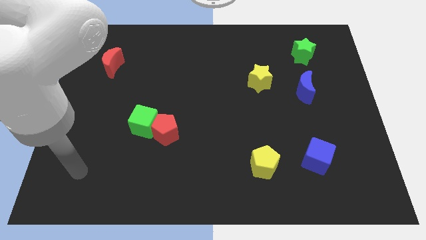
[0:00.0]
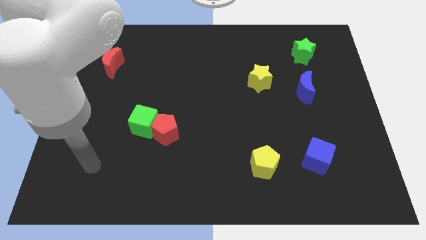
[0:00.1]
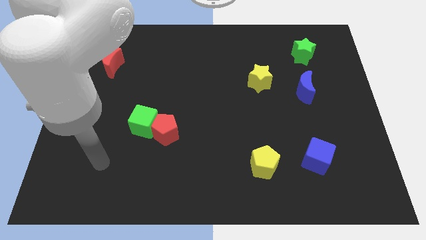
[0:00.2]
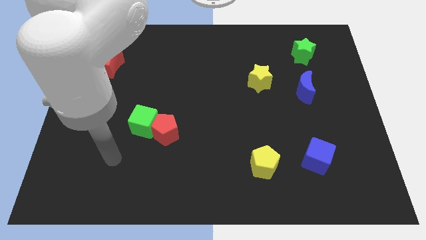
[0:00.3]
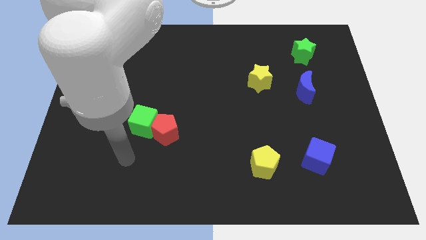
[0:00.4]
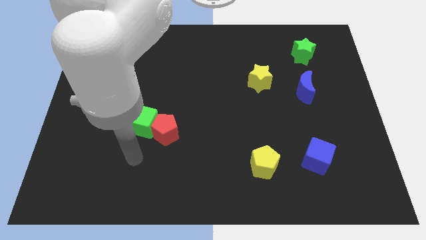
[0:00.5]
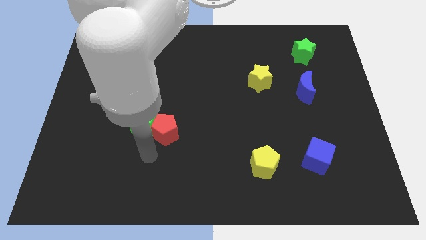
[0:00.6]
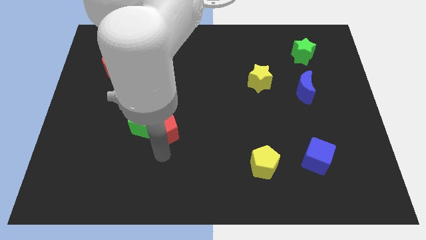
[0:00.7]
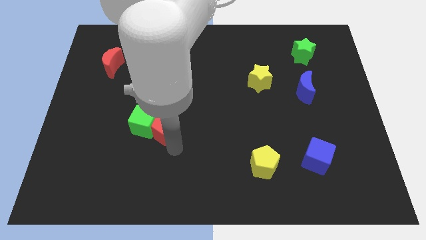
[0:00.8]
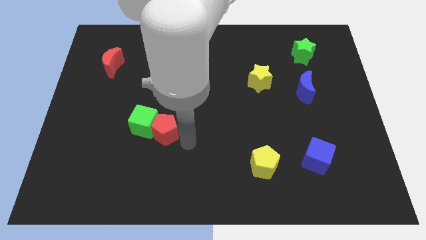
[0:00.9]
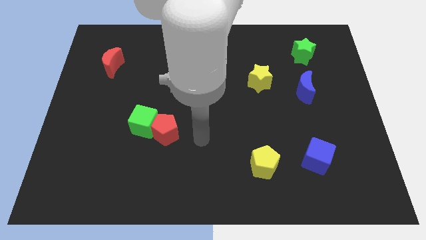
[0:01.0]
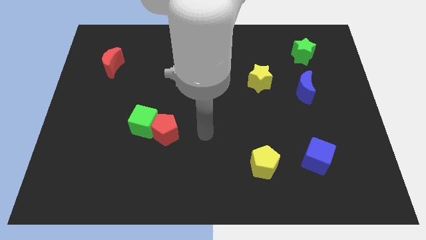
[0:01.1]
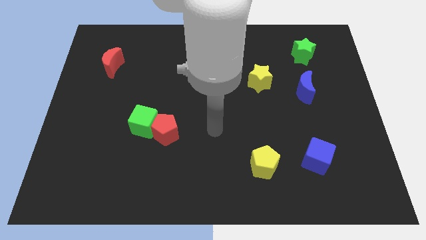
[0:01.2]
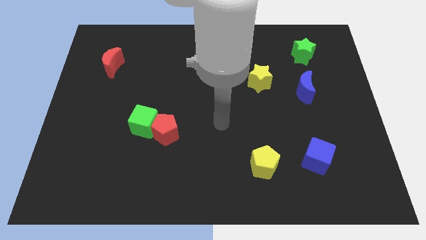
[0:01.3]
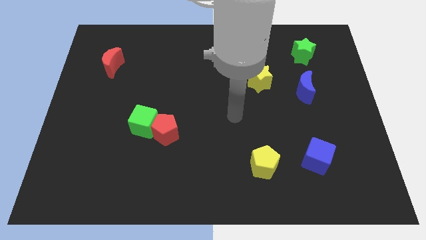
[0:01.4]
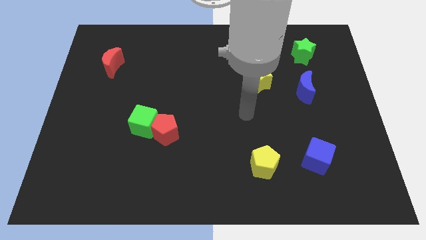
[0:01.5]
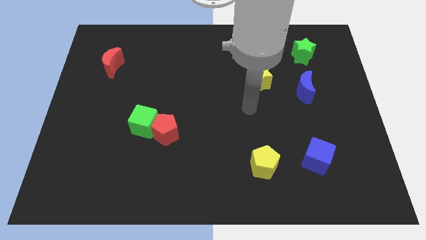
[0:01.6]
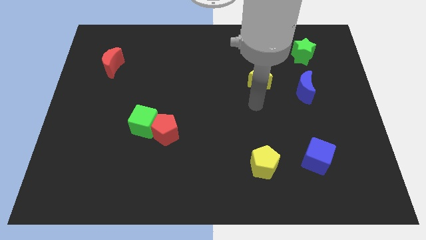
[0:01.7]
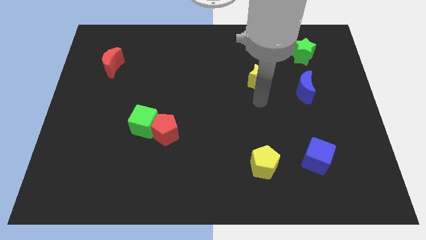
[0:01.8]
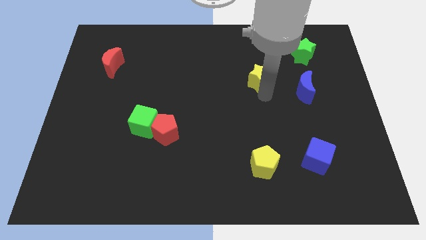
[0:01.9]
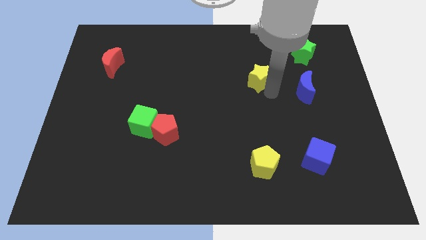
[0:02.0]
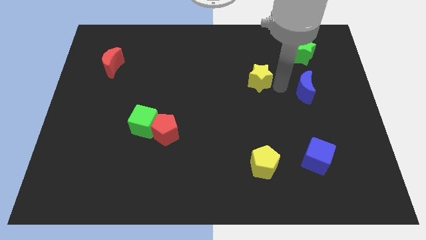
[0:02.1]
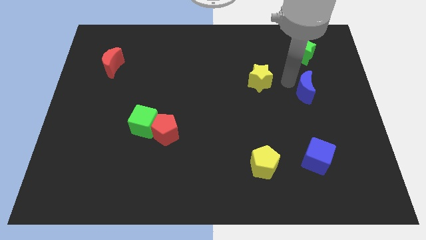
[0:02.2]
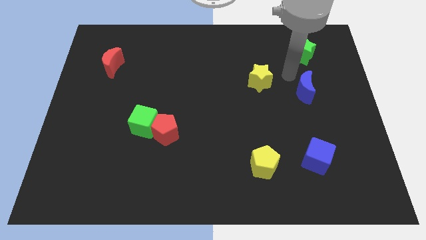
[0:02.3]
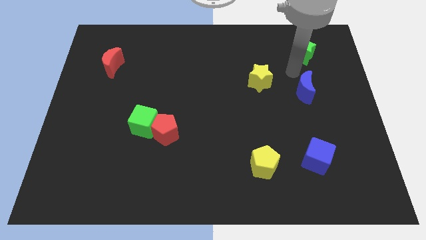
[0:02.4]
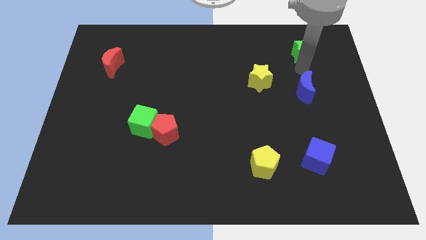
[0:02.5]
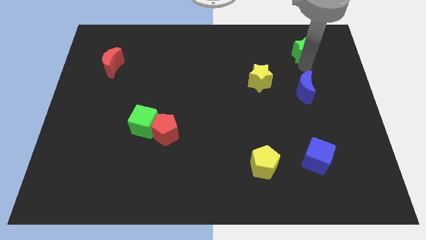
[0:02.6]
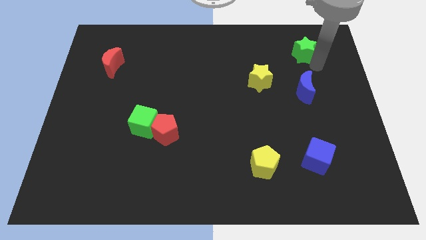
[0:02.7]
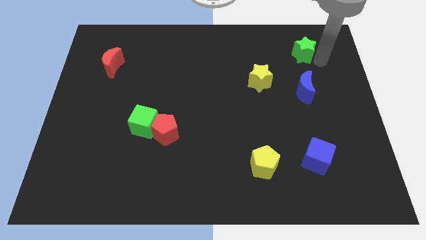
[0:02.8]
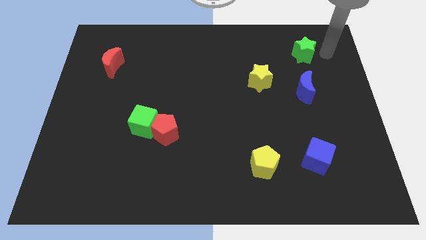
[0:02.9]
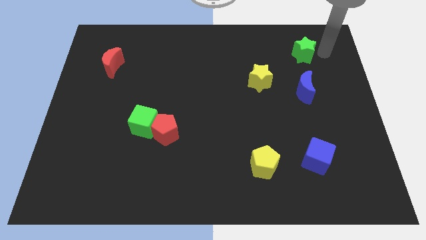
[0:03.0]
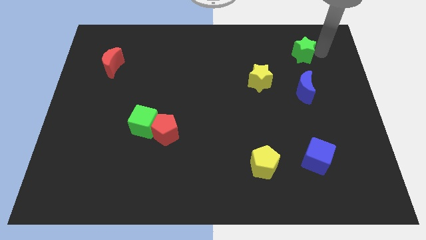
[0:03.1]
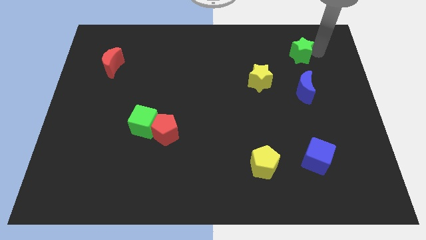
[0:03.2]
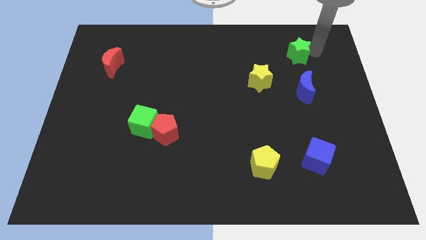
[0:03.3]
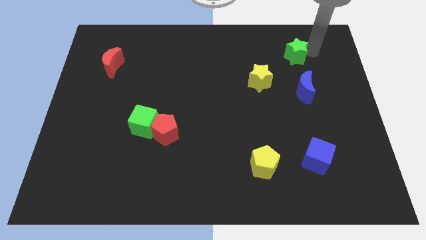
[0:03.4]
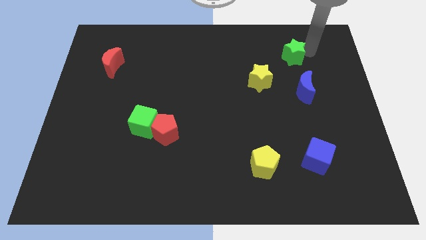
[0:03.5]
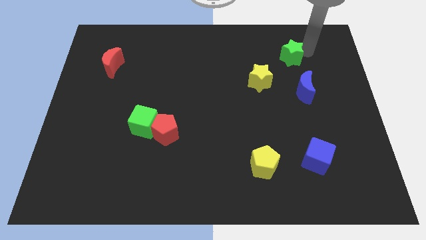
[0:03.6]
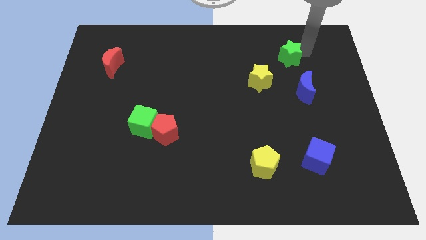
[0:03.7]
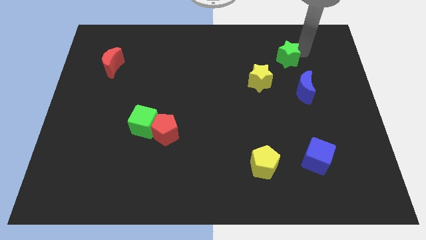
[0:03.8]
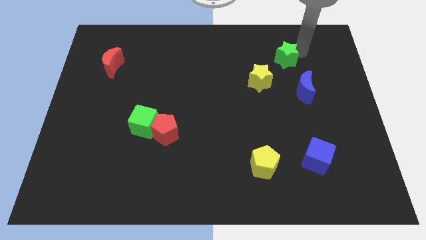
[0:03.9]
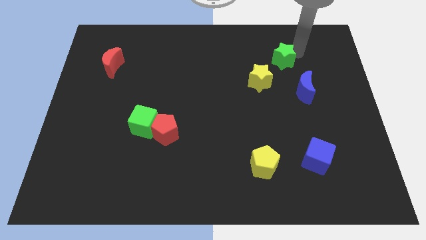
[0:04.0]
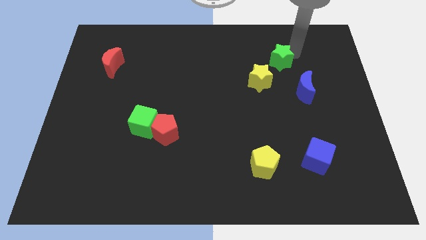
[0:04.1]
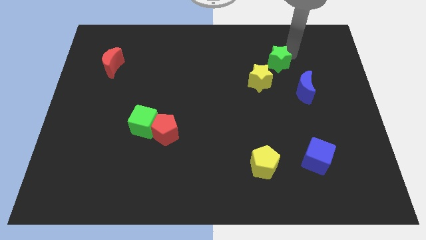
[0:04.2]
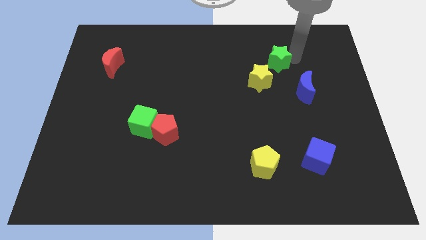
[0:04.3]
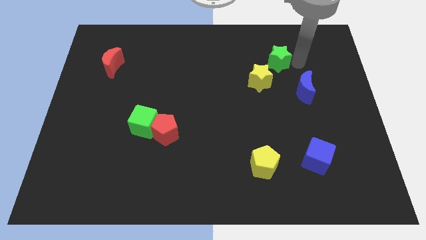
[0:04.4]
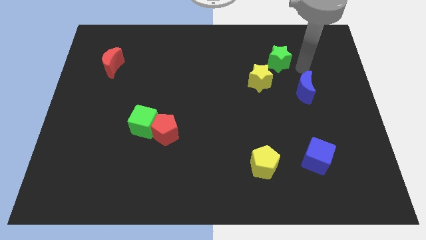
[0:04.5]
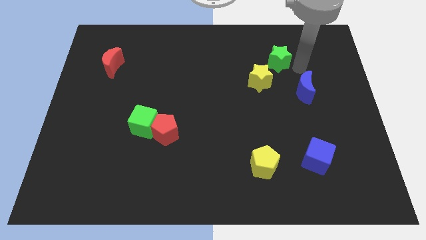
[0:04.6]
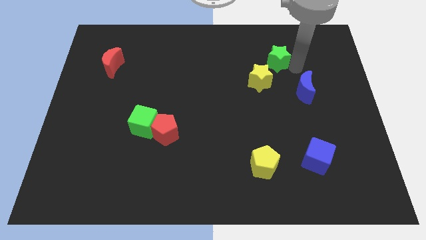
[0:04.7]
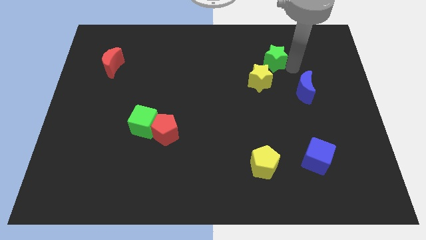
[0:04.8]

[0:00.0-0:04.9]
push the green star slightly left

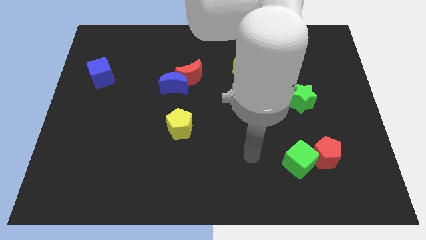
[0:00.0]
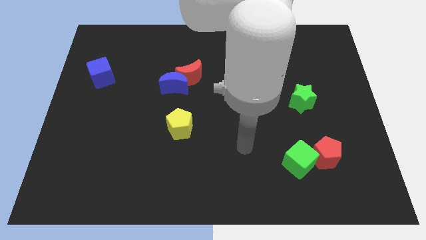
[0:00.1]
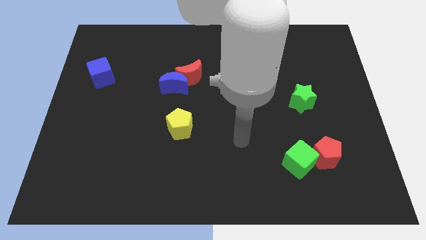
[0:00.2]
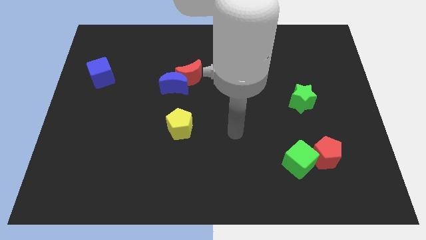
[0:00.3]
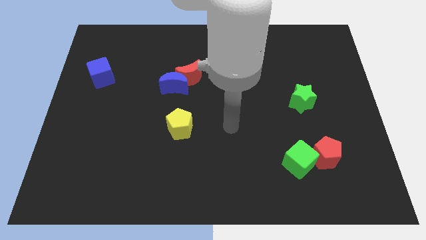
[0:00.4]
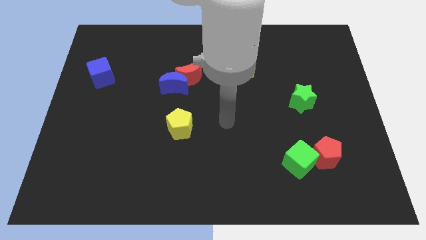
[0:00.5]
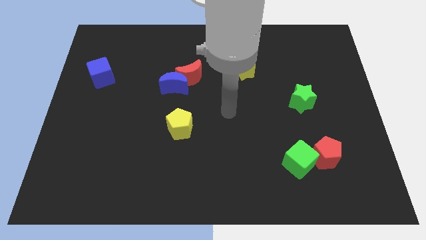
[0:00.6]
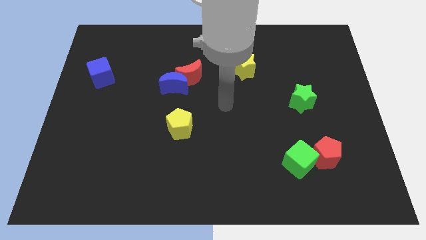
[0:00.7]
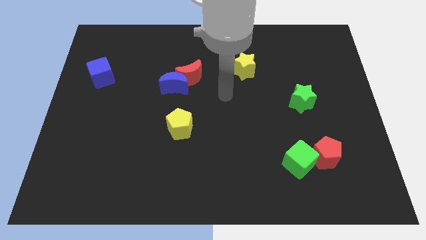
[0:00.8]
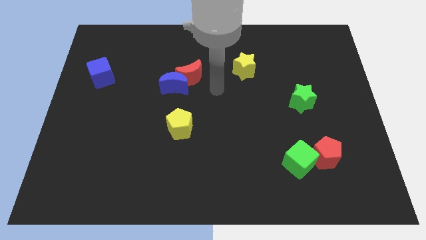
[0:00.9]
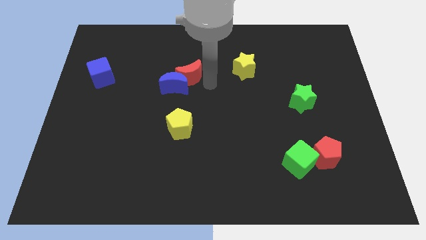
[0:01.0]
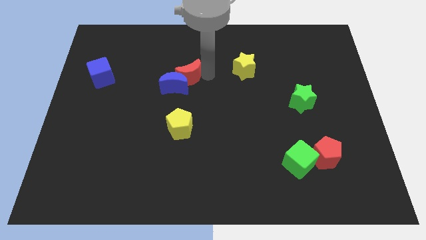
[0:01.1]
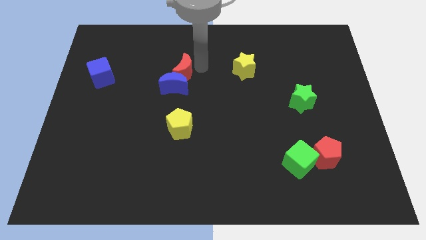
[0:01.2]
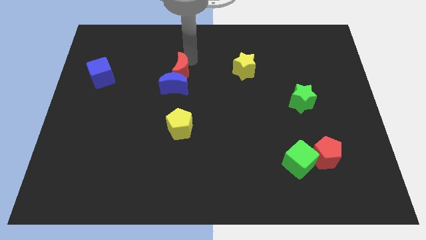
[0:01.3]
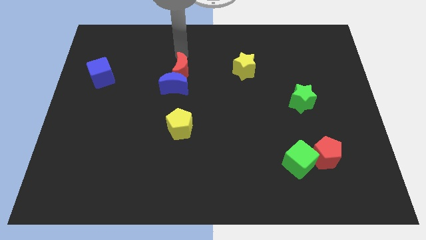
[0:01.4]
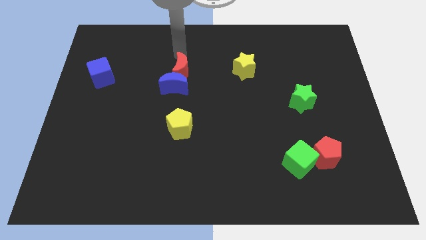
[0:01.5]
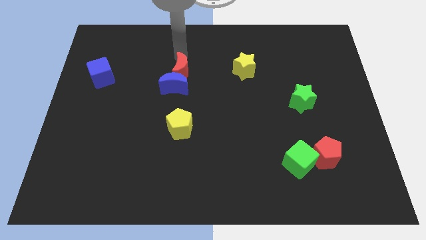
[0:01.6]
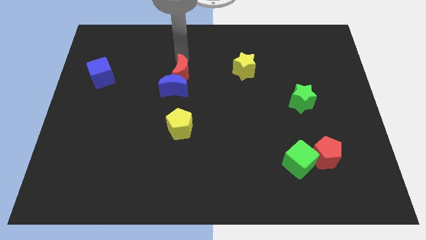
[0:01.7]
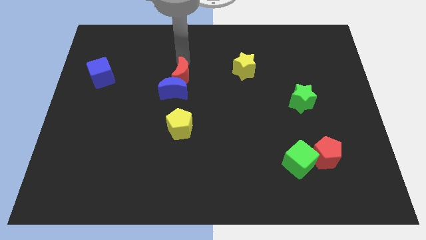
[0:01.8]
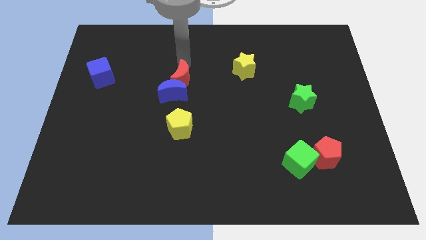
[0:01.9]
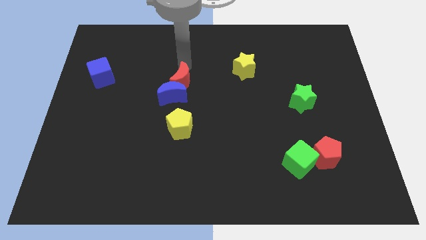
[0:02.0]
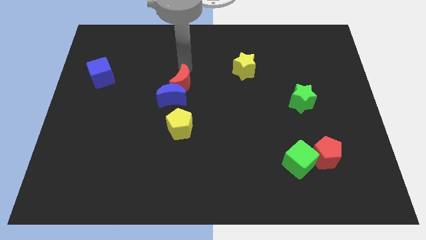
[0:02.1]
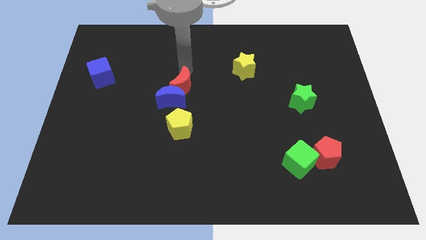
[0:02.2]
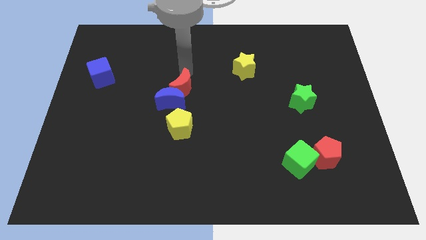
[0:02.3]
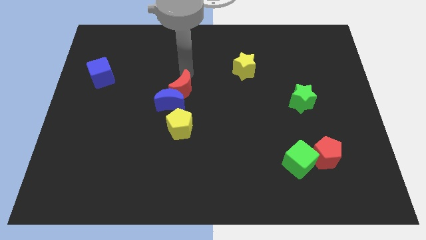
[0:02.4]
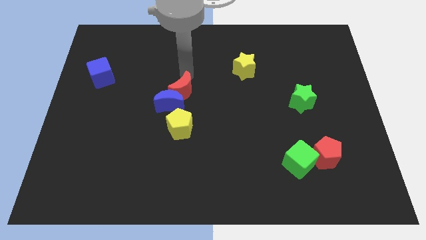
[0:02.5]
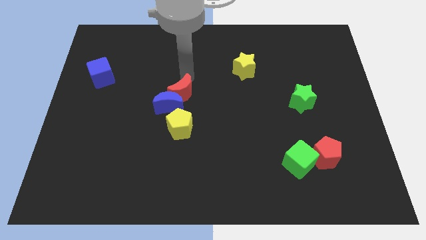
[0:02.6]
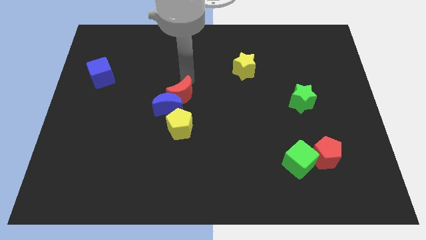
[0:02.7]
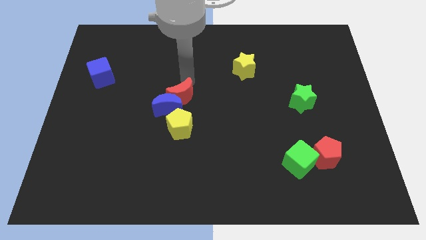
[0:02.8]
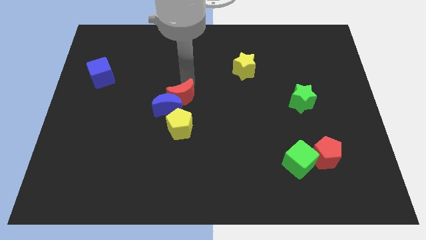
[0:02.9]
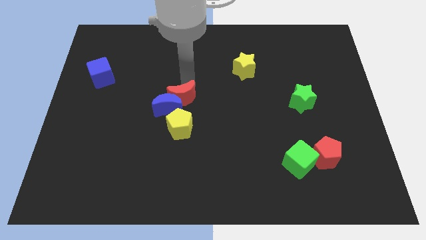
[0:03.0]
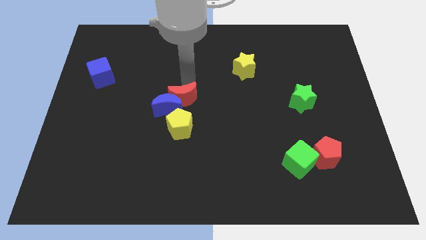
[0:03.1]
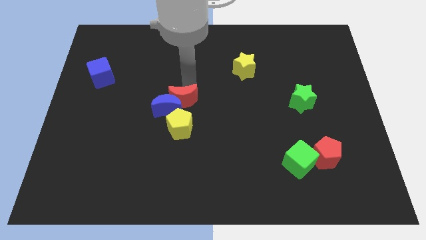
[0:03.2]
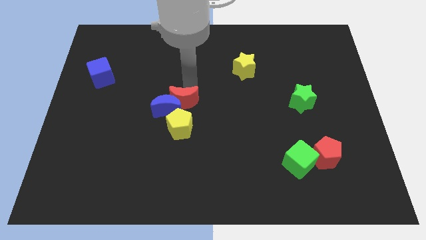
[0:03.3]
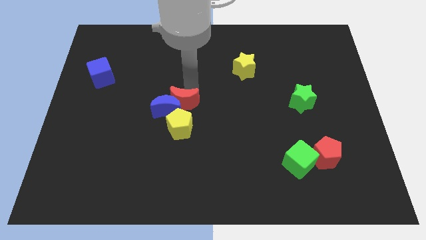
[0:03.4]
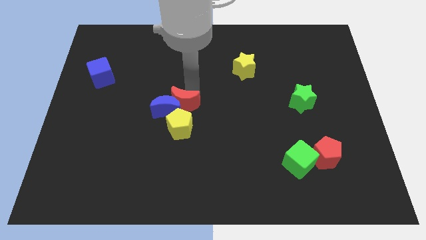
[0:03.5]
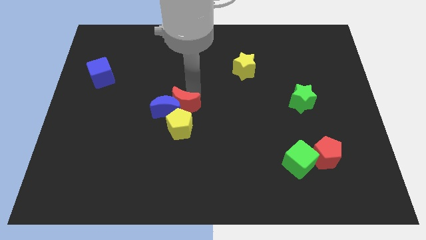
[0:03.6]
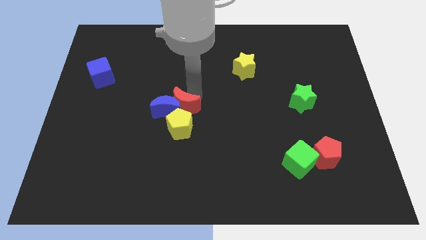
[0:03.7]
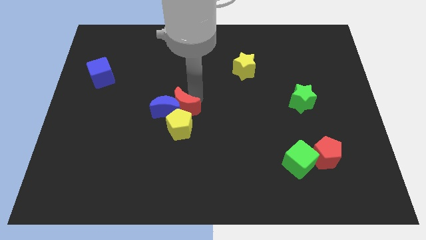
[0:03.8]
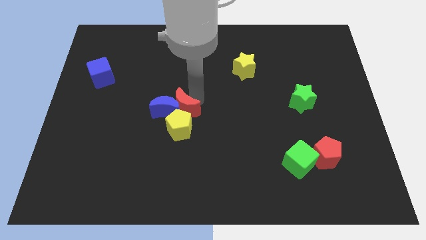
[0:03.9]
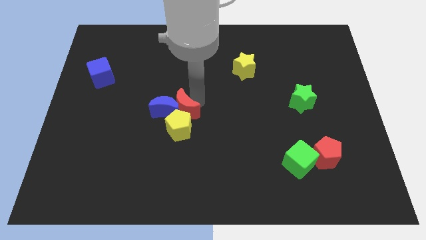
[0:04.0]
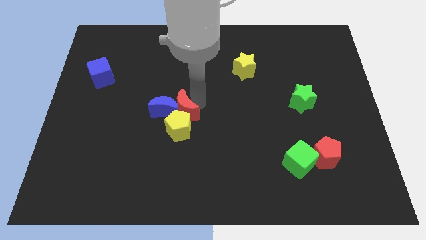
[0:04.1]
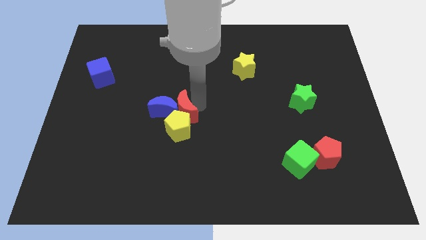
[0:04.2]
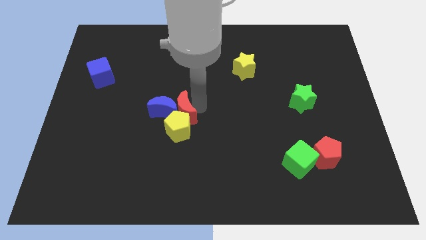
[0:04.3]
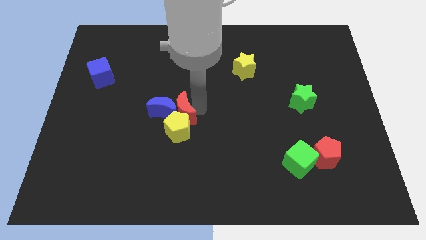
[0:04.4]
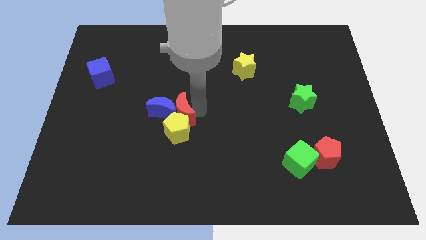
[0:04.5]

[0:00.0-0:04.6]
push the red moon diagonally down and left a bit
